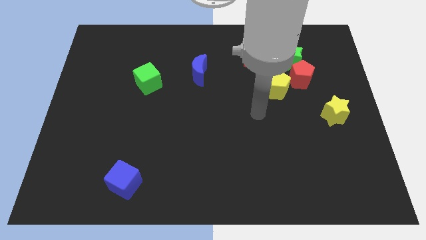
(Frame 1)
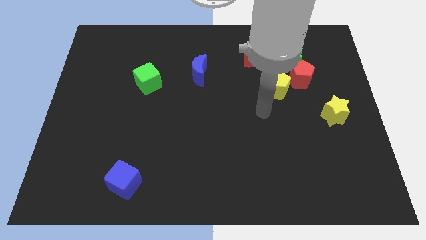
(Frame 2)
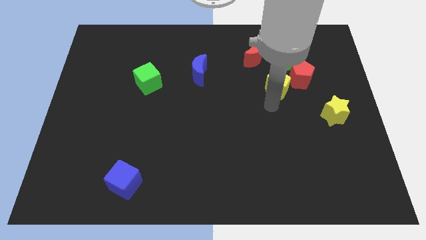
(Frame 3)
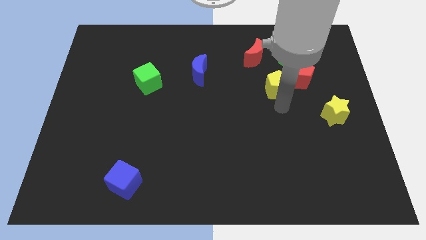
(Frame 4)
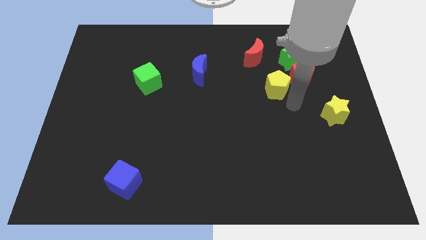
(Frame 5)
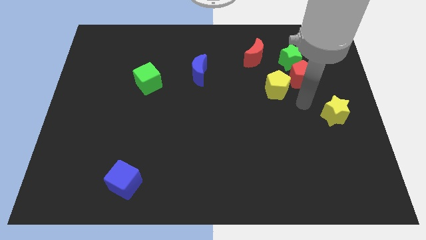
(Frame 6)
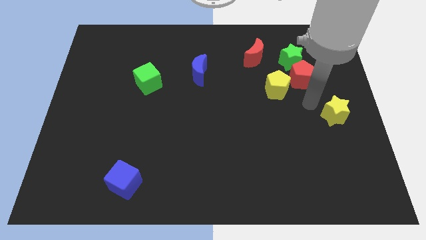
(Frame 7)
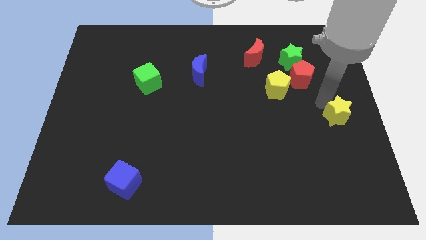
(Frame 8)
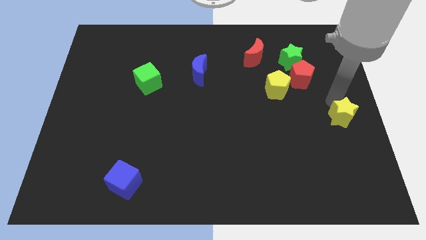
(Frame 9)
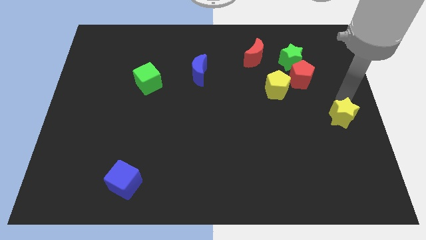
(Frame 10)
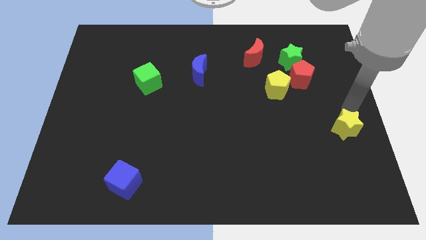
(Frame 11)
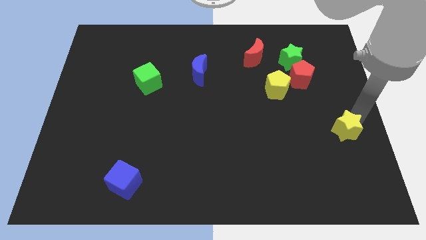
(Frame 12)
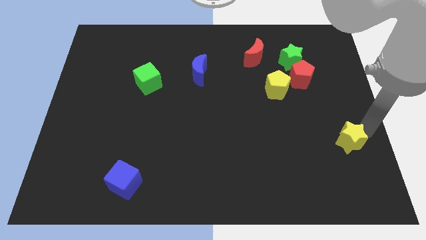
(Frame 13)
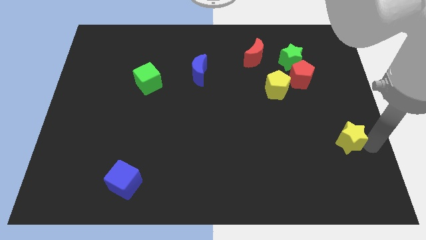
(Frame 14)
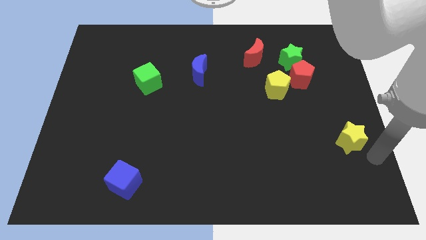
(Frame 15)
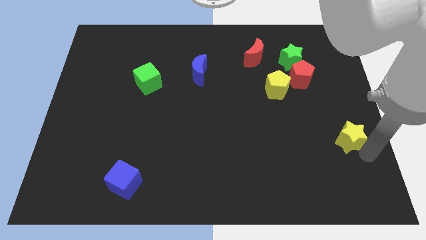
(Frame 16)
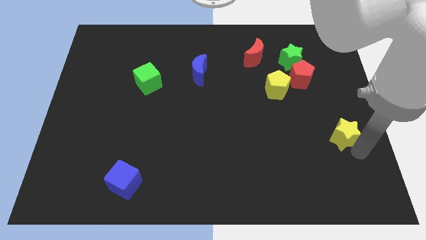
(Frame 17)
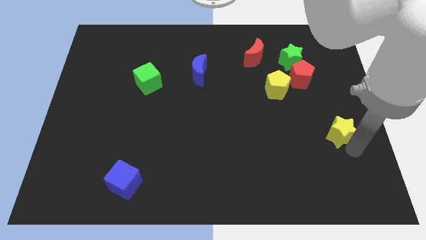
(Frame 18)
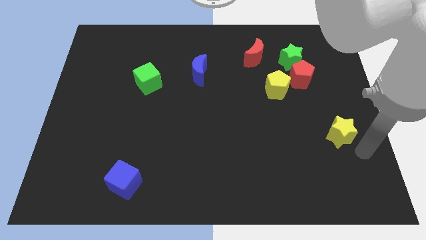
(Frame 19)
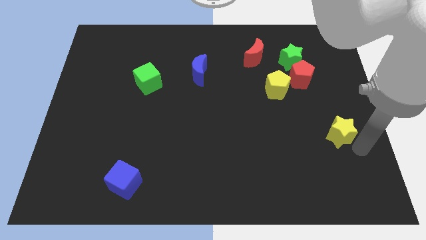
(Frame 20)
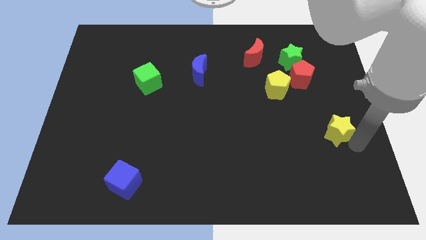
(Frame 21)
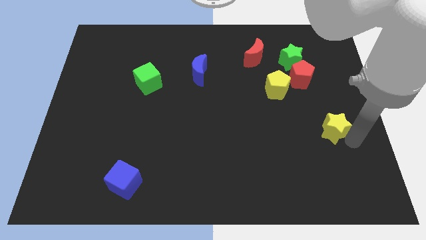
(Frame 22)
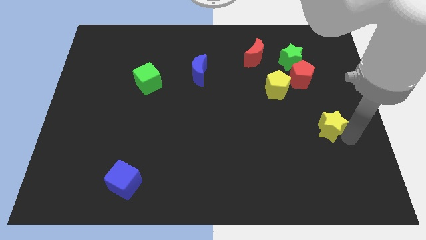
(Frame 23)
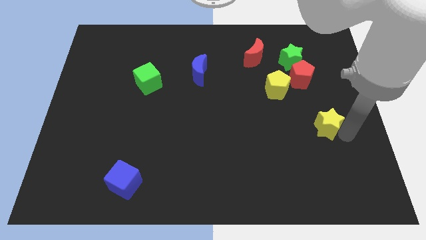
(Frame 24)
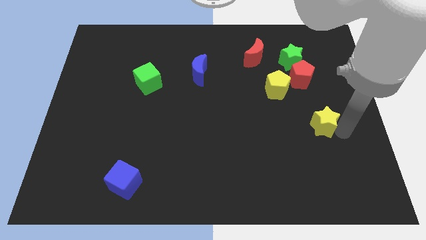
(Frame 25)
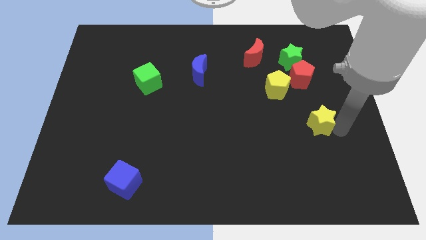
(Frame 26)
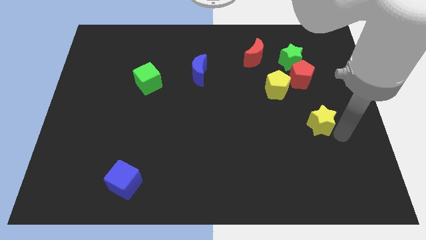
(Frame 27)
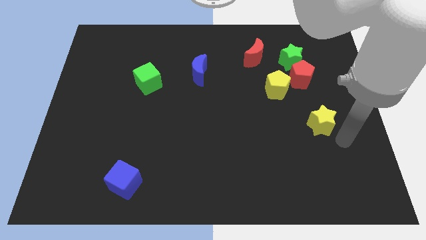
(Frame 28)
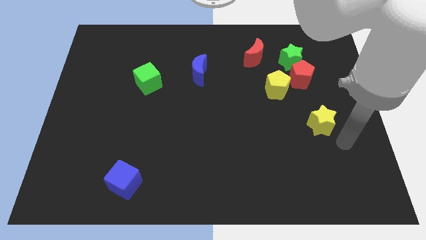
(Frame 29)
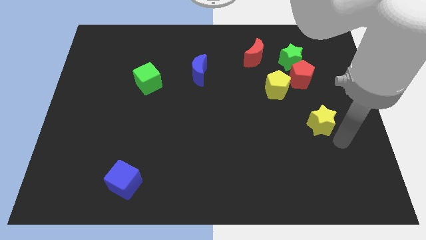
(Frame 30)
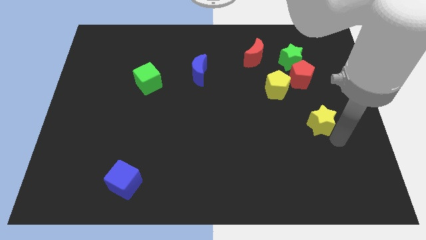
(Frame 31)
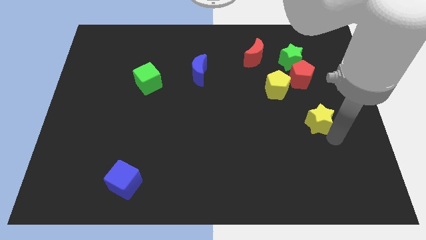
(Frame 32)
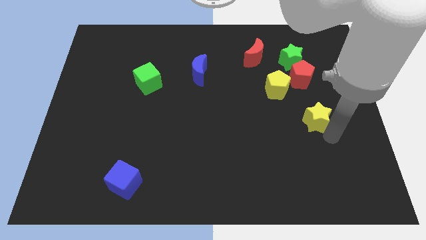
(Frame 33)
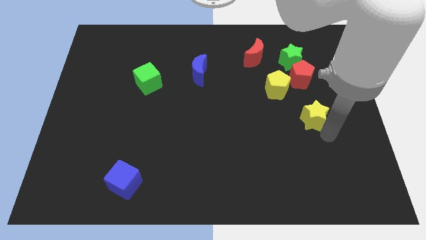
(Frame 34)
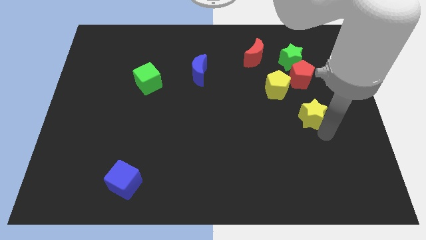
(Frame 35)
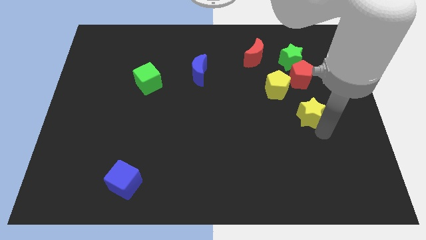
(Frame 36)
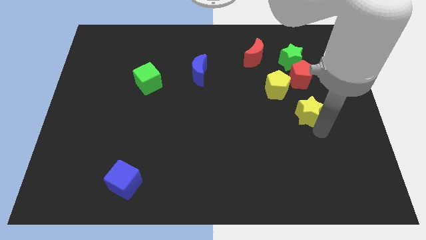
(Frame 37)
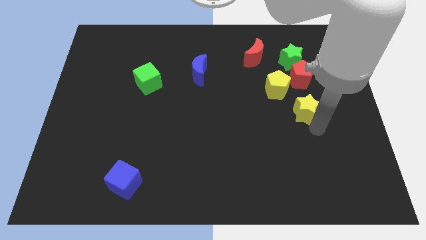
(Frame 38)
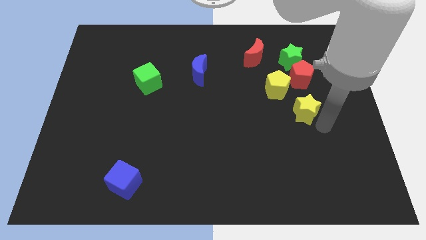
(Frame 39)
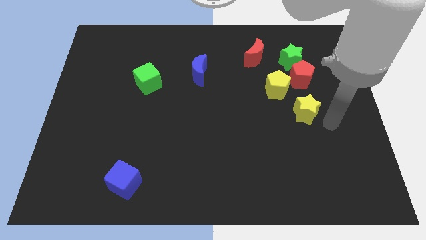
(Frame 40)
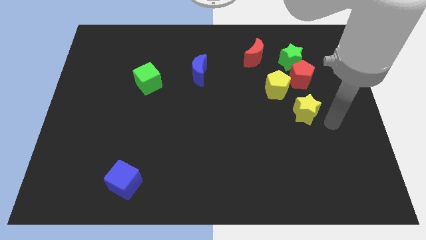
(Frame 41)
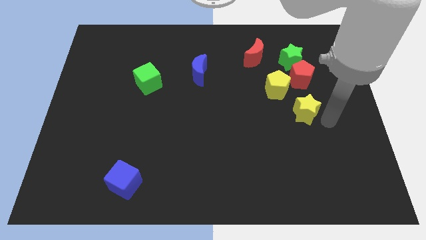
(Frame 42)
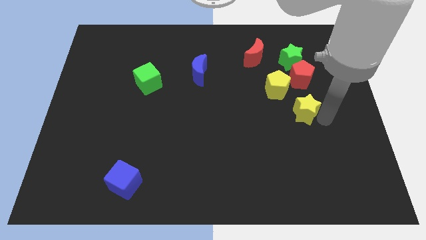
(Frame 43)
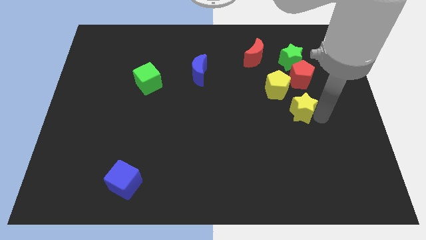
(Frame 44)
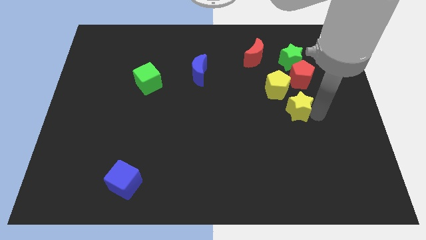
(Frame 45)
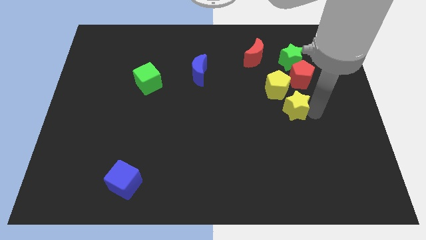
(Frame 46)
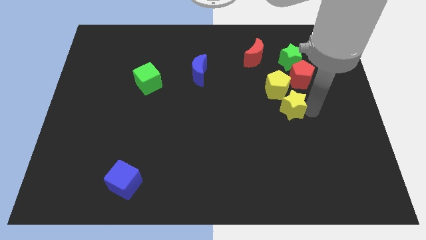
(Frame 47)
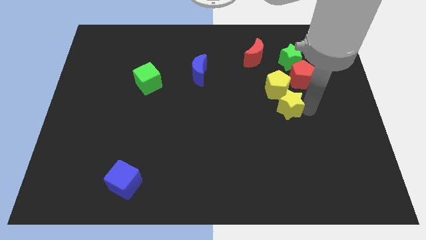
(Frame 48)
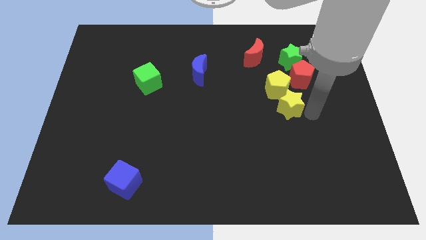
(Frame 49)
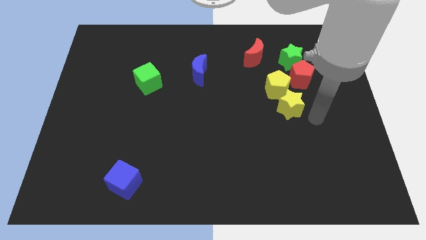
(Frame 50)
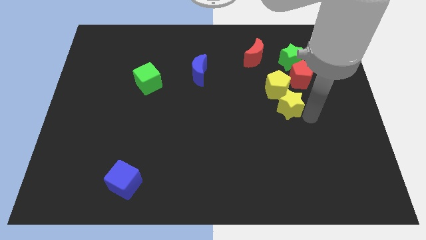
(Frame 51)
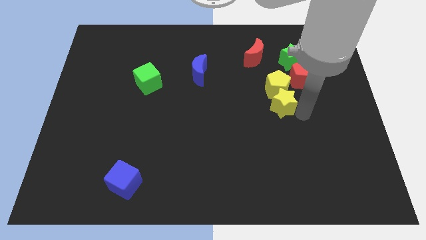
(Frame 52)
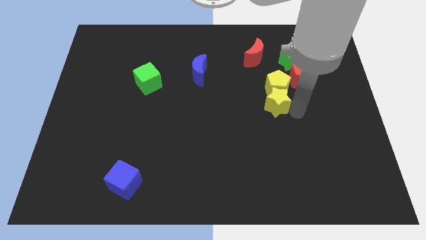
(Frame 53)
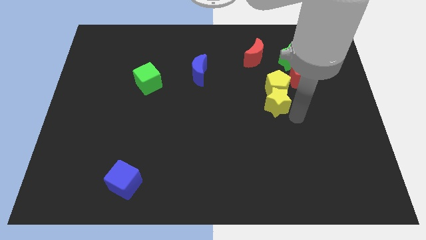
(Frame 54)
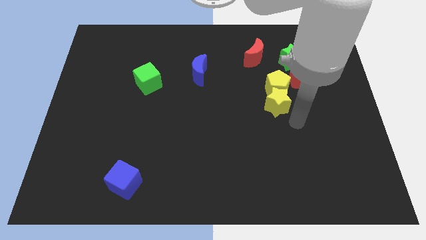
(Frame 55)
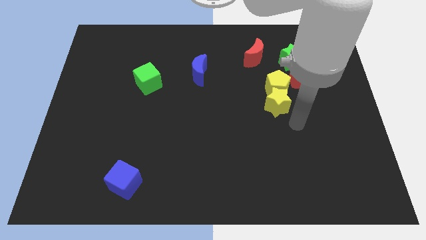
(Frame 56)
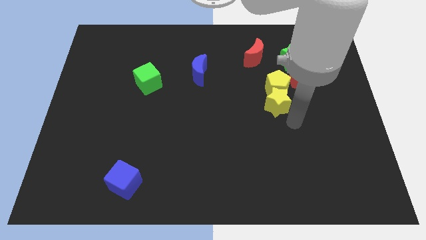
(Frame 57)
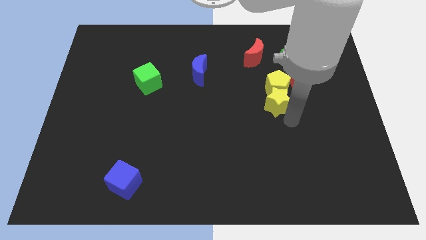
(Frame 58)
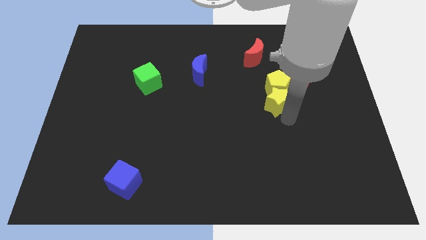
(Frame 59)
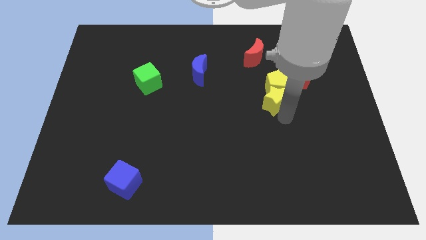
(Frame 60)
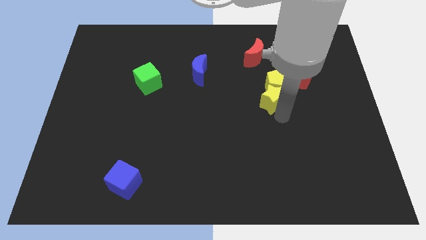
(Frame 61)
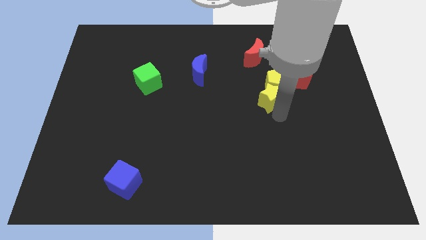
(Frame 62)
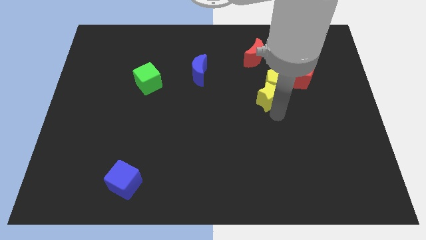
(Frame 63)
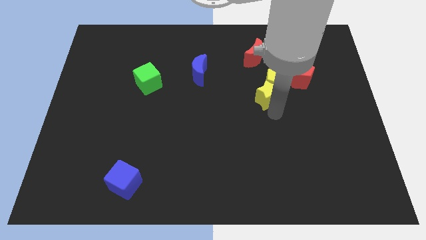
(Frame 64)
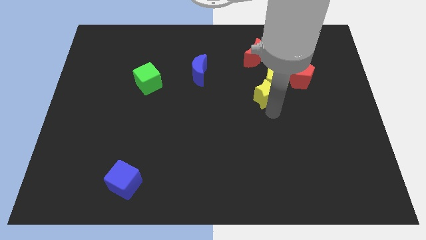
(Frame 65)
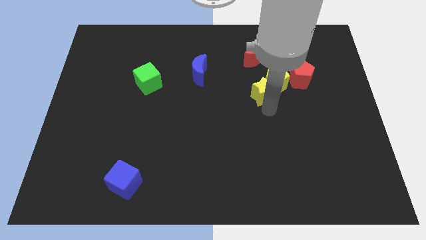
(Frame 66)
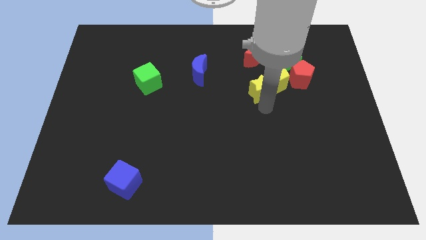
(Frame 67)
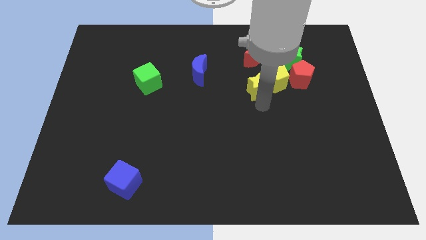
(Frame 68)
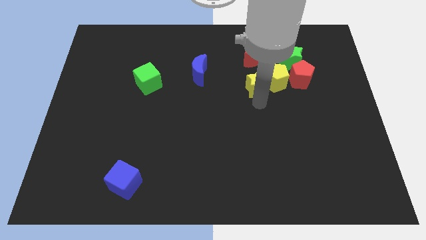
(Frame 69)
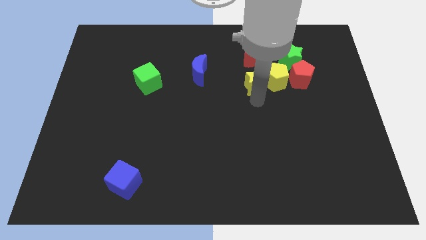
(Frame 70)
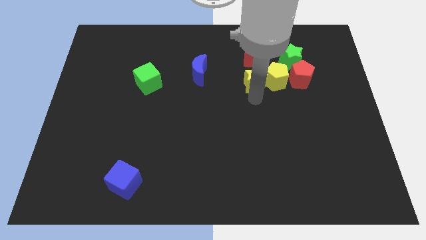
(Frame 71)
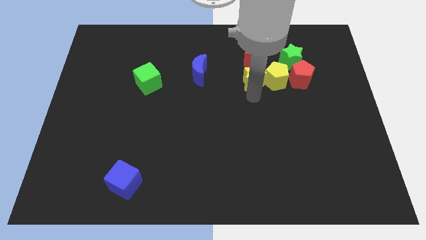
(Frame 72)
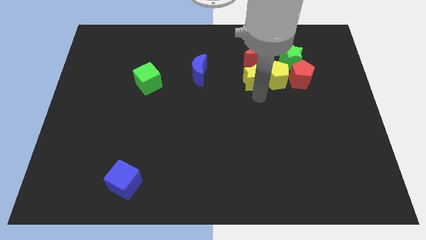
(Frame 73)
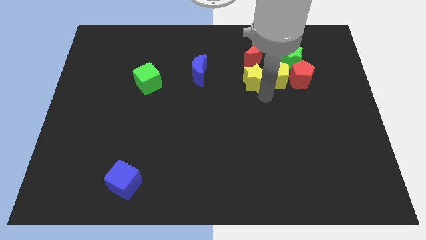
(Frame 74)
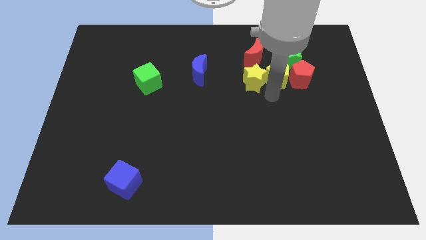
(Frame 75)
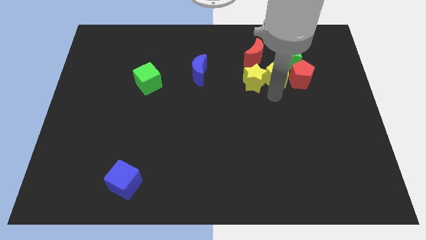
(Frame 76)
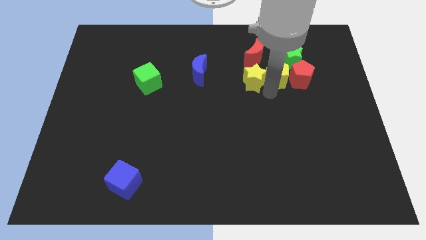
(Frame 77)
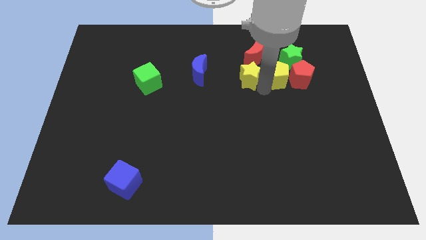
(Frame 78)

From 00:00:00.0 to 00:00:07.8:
move the yellow star to the bottom left side of the red moon

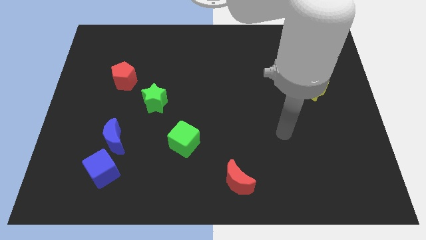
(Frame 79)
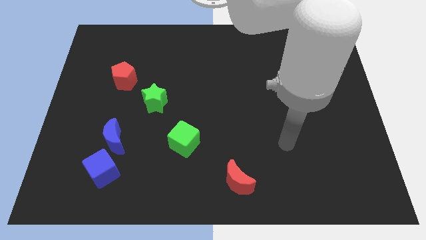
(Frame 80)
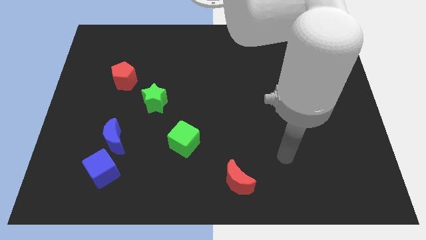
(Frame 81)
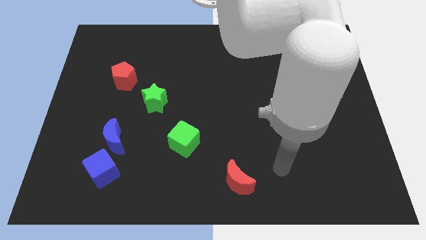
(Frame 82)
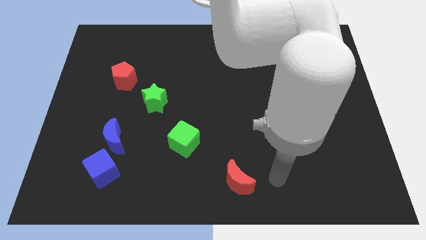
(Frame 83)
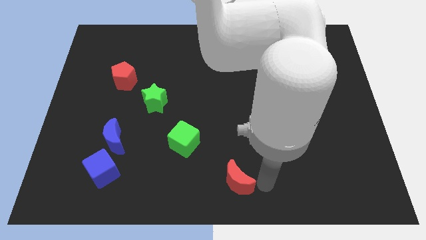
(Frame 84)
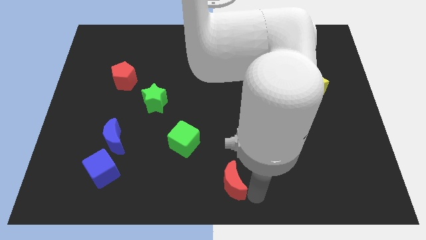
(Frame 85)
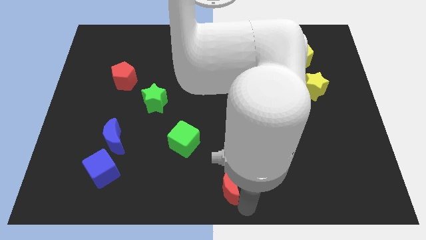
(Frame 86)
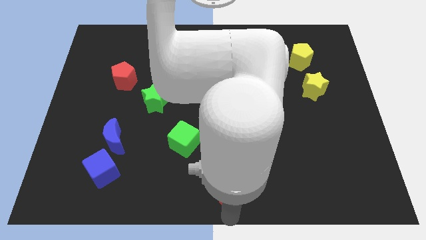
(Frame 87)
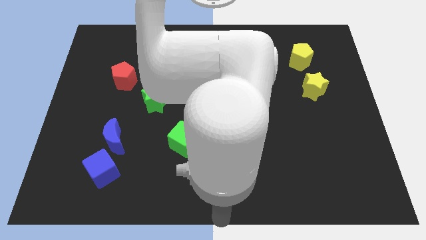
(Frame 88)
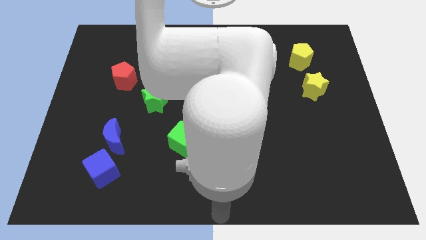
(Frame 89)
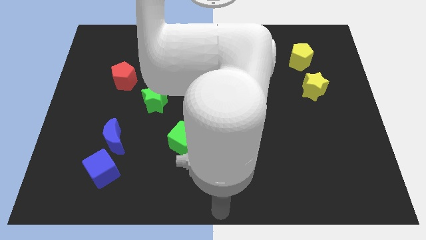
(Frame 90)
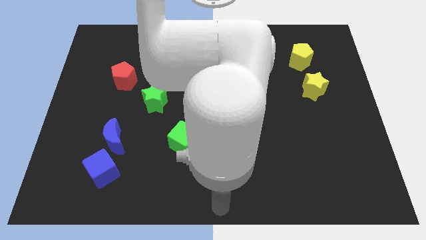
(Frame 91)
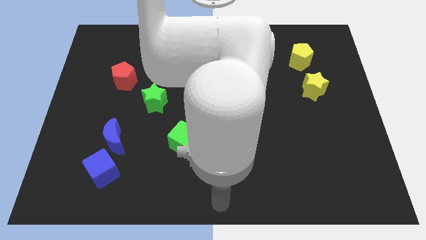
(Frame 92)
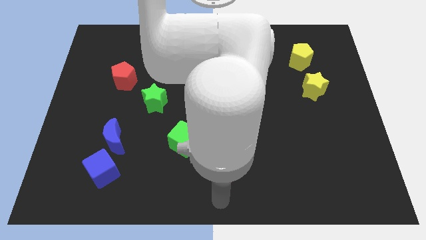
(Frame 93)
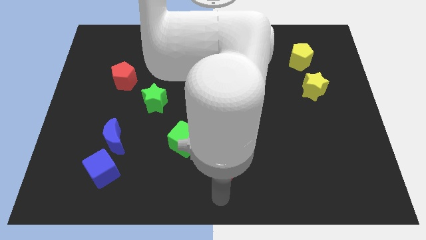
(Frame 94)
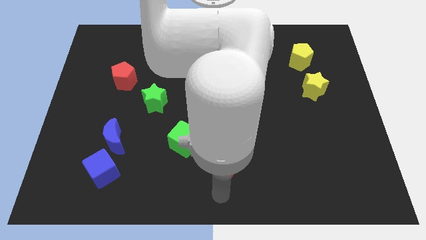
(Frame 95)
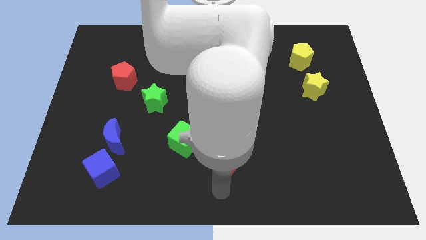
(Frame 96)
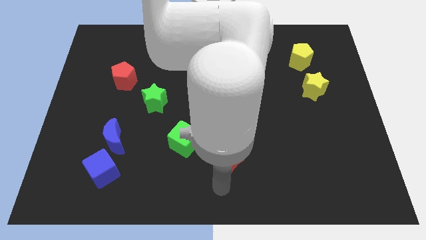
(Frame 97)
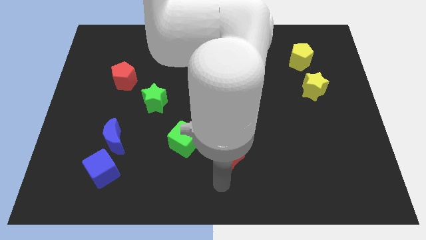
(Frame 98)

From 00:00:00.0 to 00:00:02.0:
put the red moon to the right of the green cube
